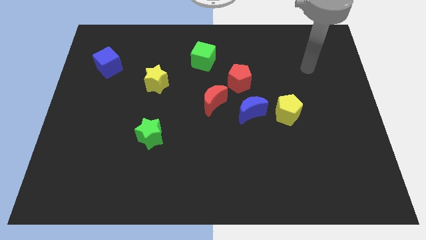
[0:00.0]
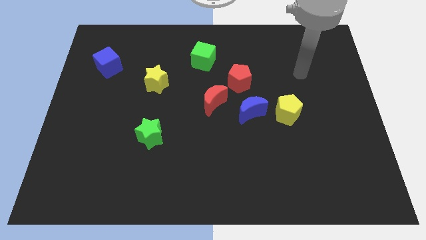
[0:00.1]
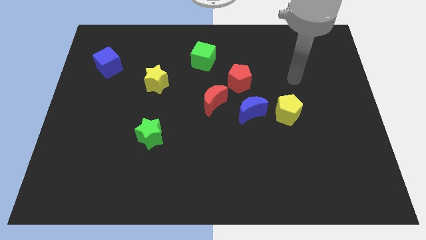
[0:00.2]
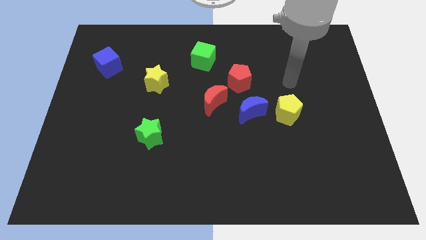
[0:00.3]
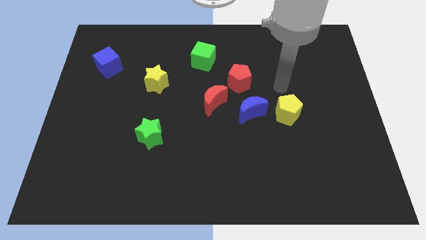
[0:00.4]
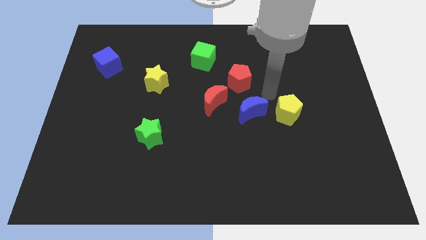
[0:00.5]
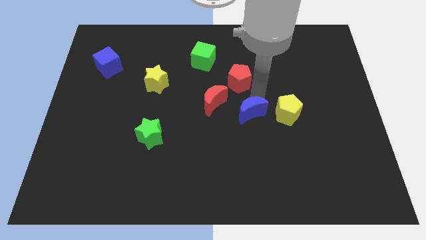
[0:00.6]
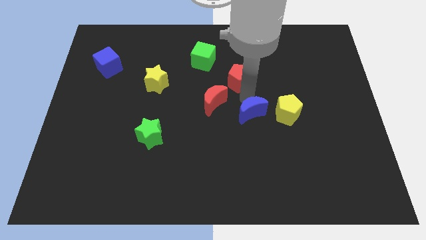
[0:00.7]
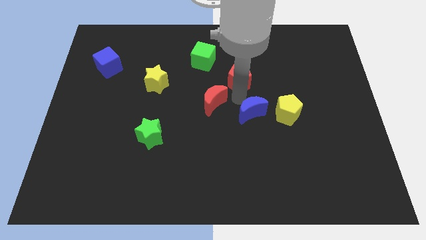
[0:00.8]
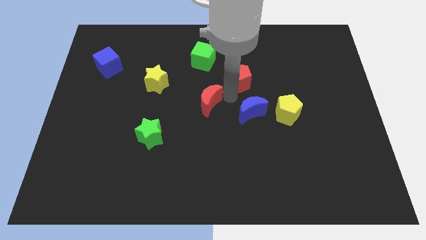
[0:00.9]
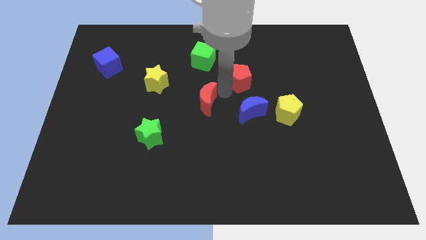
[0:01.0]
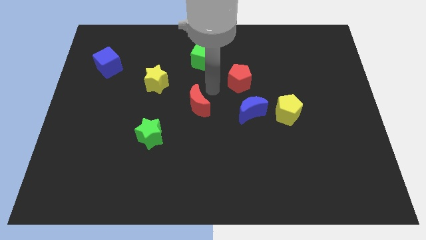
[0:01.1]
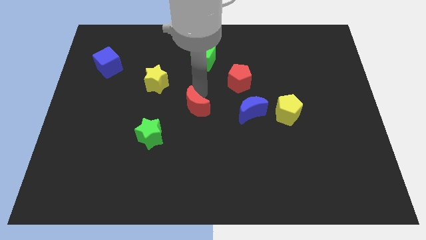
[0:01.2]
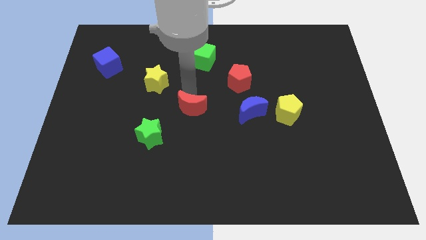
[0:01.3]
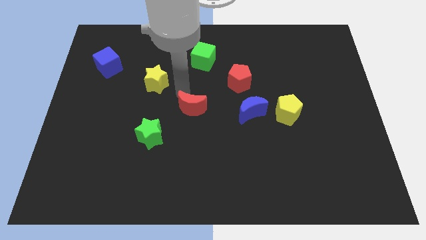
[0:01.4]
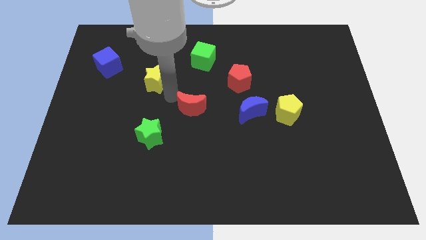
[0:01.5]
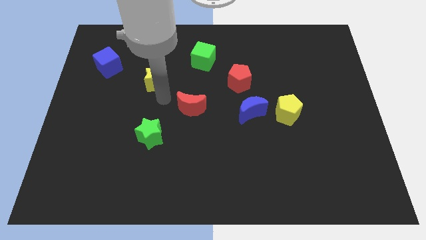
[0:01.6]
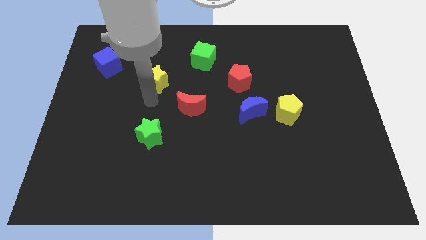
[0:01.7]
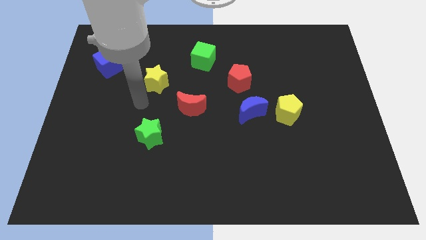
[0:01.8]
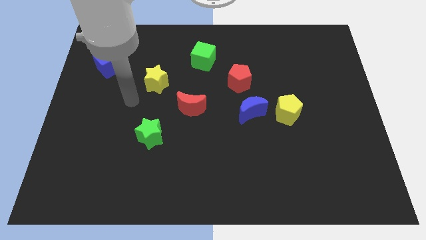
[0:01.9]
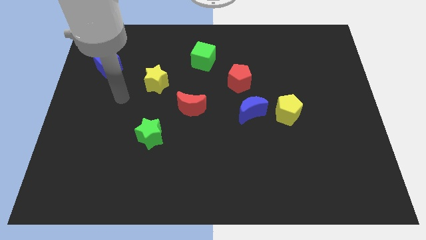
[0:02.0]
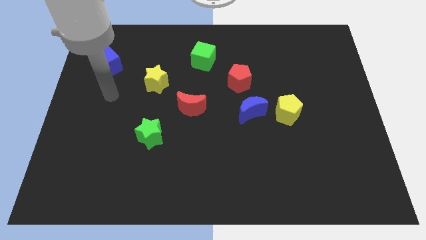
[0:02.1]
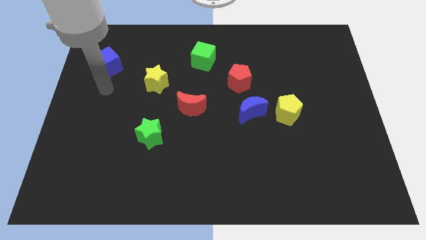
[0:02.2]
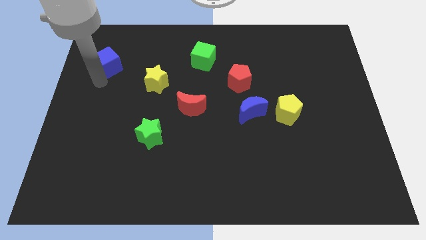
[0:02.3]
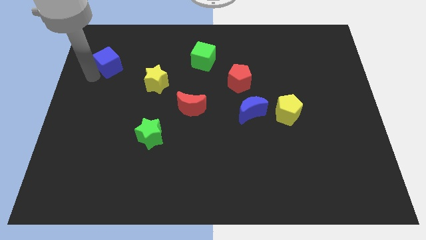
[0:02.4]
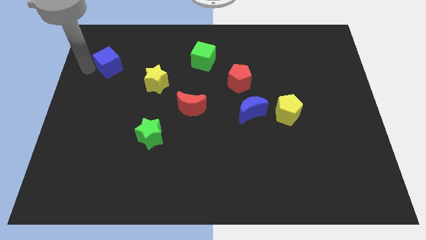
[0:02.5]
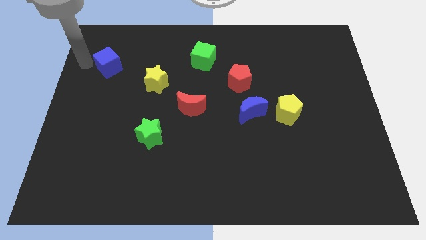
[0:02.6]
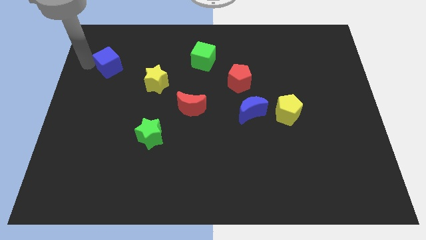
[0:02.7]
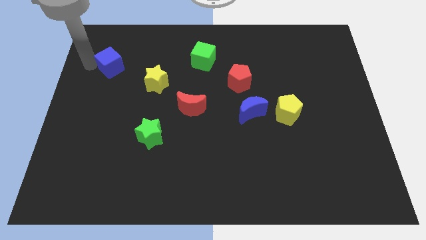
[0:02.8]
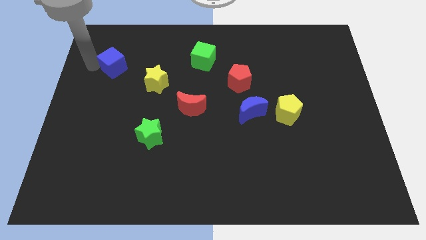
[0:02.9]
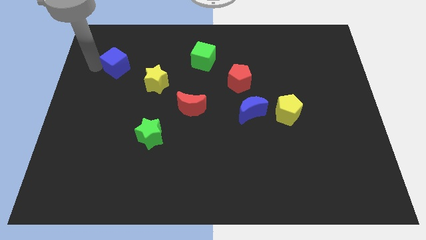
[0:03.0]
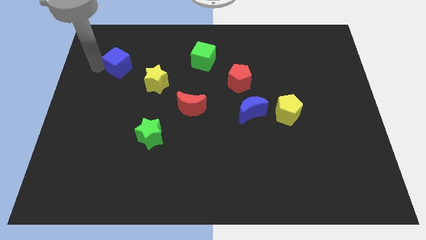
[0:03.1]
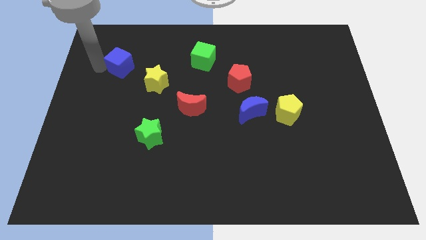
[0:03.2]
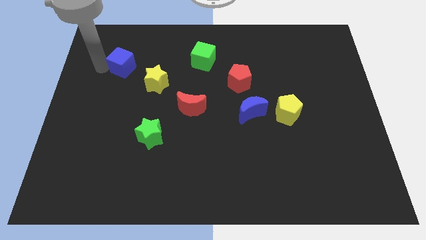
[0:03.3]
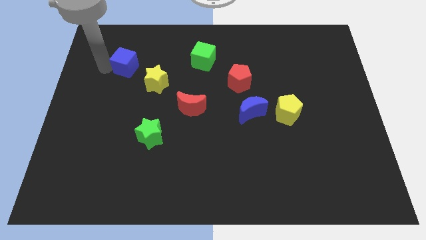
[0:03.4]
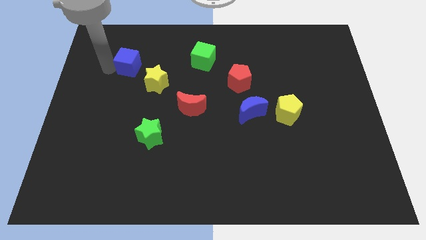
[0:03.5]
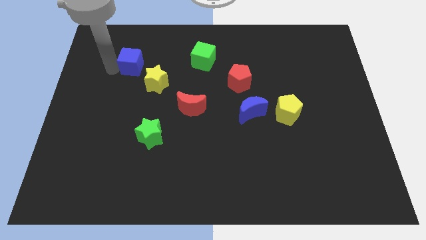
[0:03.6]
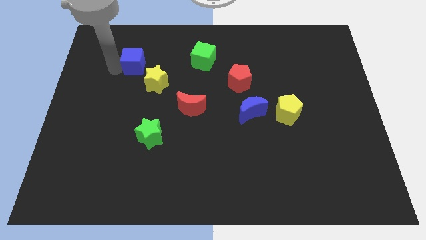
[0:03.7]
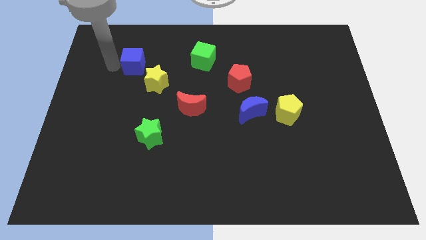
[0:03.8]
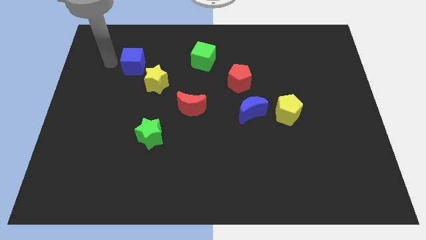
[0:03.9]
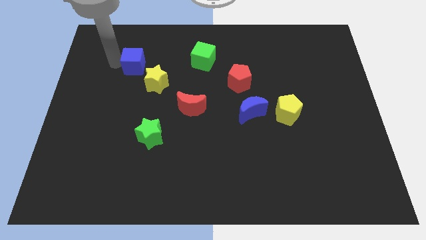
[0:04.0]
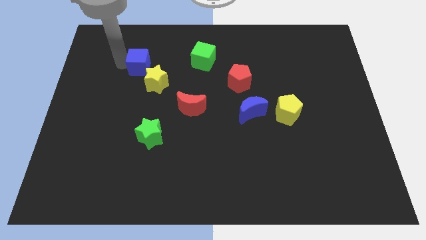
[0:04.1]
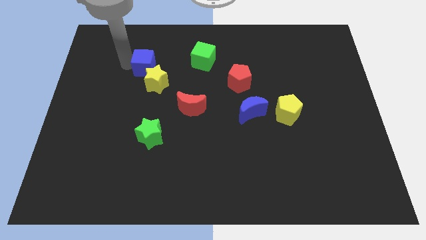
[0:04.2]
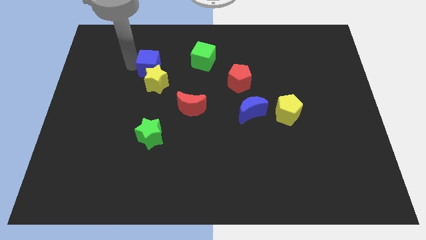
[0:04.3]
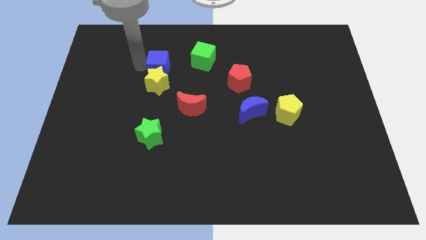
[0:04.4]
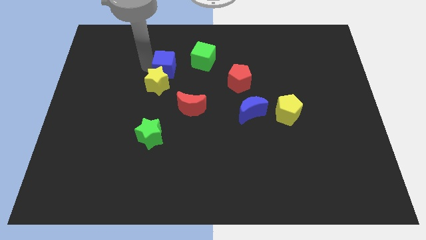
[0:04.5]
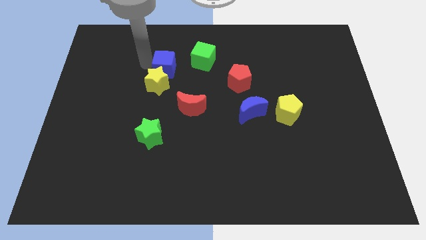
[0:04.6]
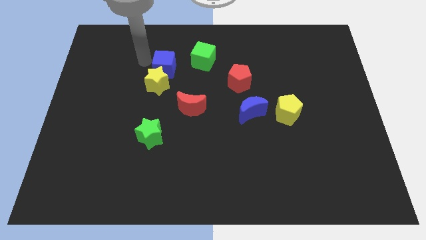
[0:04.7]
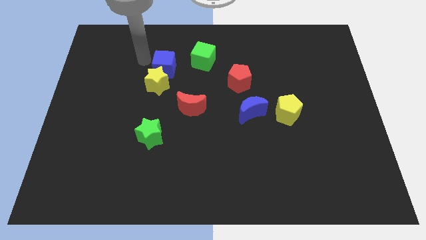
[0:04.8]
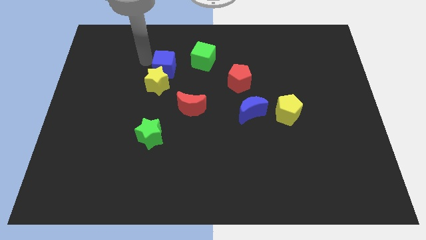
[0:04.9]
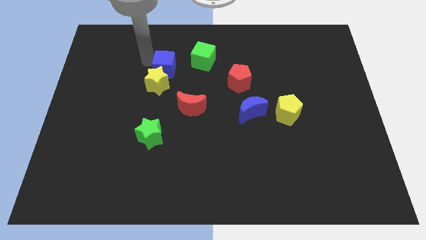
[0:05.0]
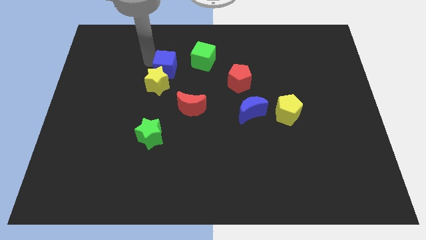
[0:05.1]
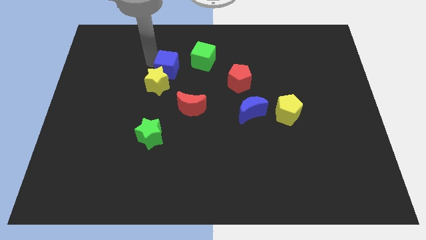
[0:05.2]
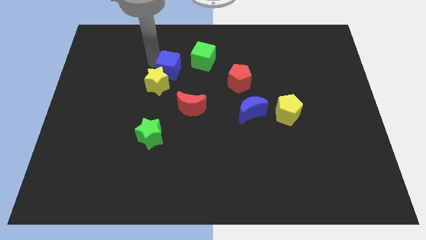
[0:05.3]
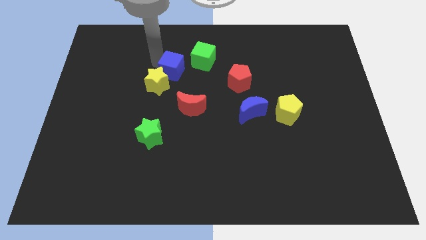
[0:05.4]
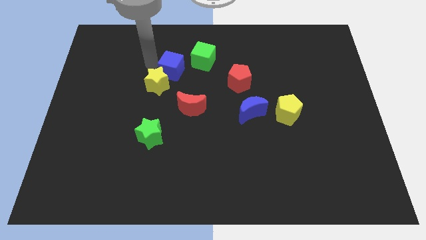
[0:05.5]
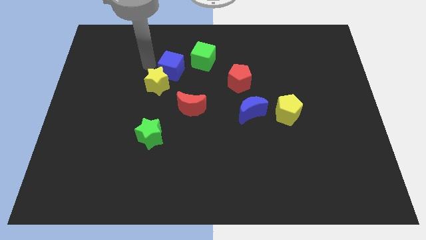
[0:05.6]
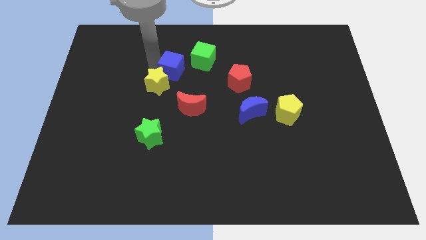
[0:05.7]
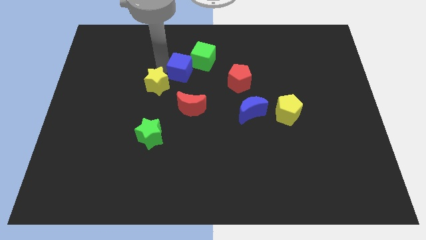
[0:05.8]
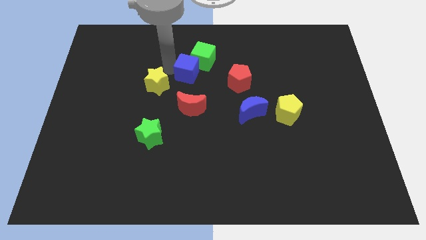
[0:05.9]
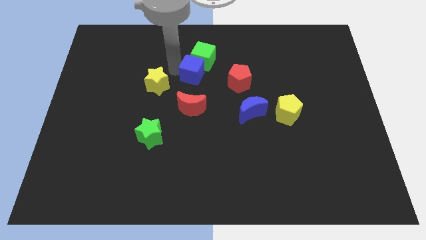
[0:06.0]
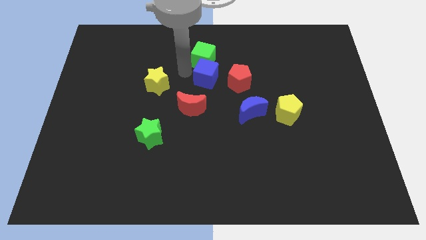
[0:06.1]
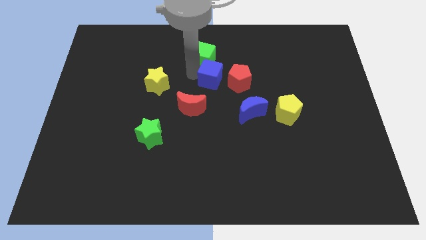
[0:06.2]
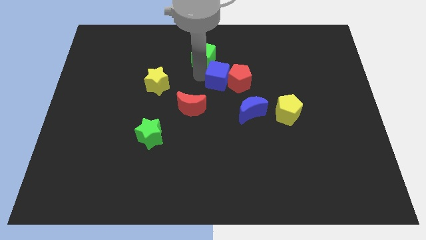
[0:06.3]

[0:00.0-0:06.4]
put the blue cube close to the red pentagon
